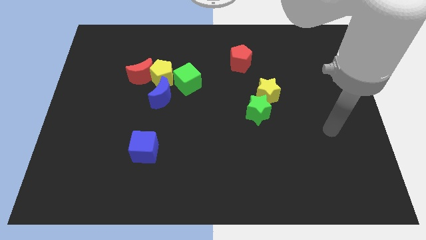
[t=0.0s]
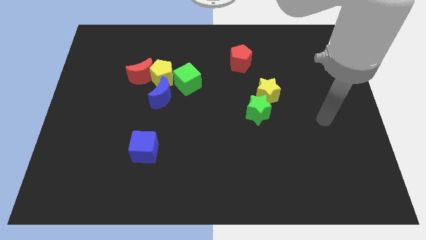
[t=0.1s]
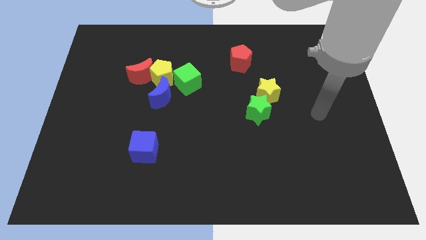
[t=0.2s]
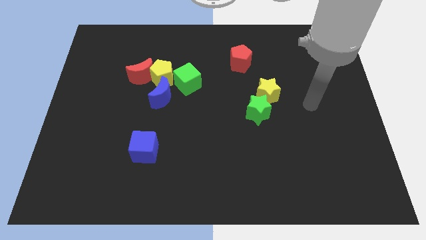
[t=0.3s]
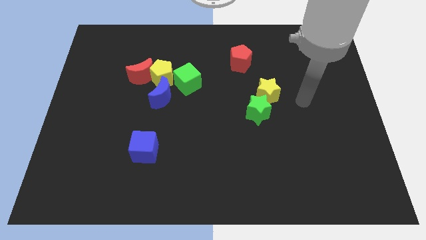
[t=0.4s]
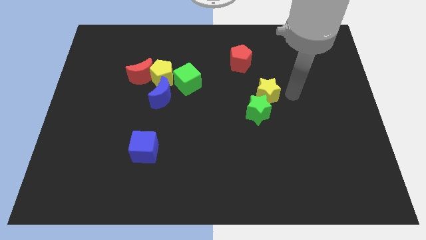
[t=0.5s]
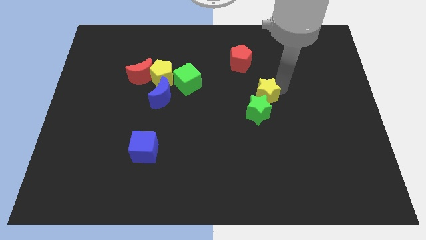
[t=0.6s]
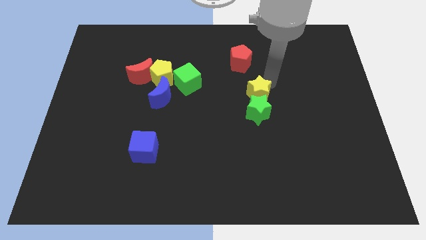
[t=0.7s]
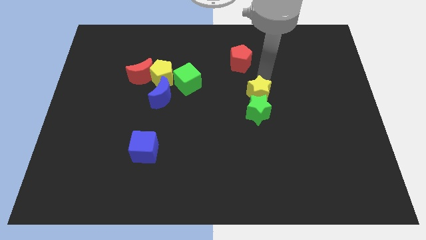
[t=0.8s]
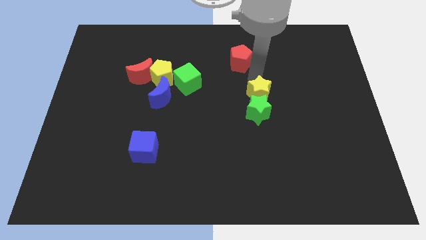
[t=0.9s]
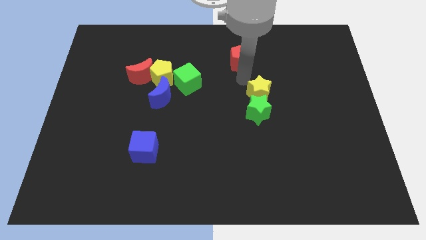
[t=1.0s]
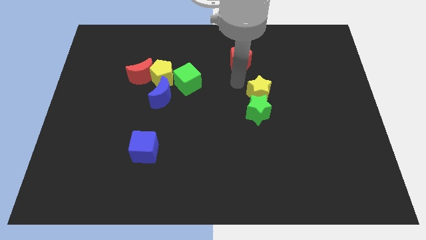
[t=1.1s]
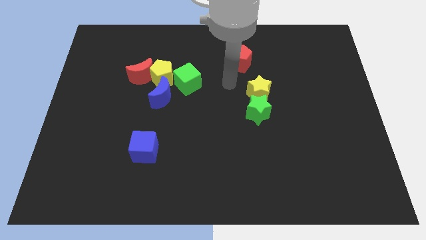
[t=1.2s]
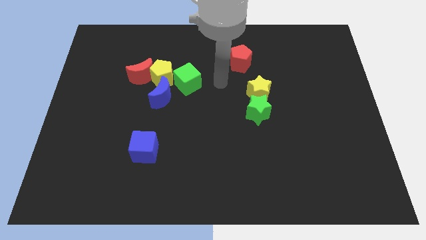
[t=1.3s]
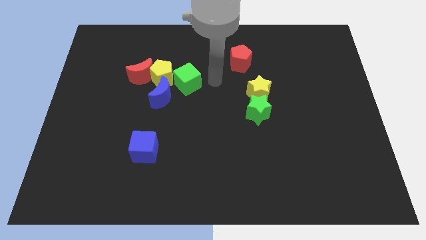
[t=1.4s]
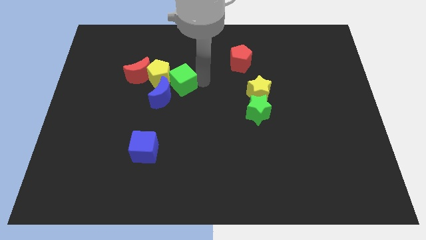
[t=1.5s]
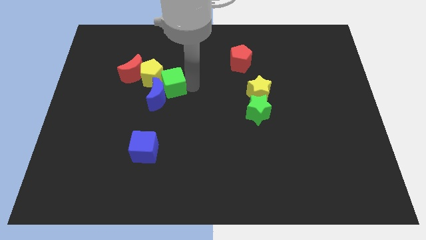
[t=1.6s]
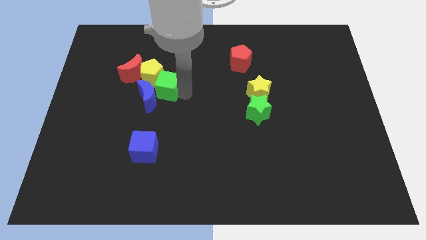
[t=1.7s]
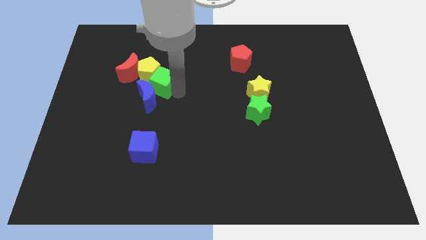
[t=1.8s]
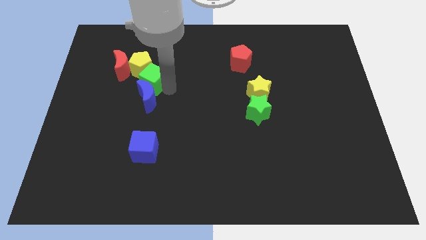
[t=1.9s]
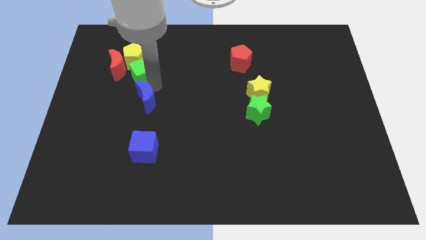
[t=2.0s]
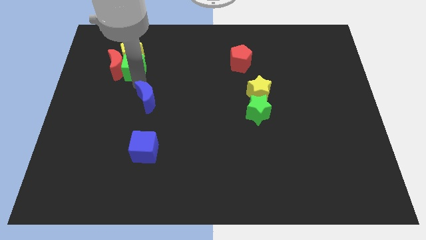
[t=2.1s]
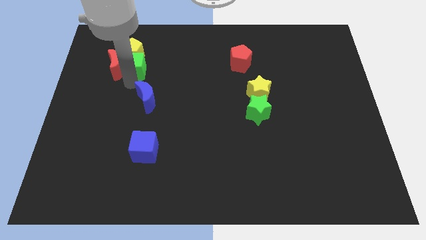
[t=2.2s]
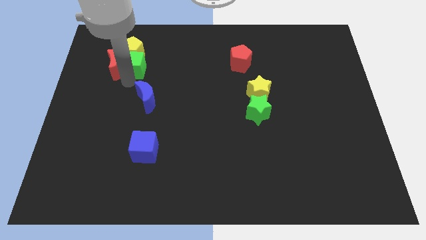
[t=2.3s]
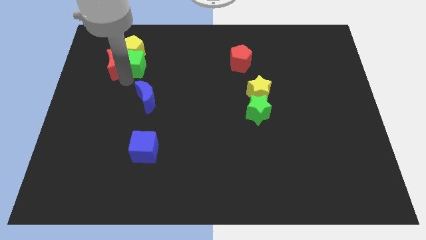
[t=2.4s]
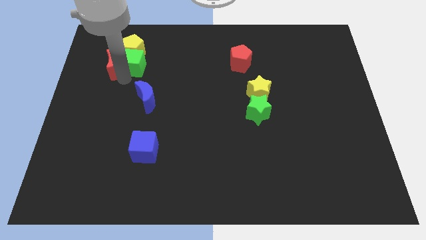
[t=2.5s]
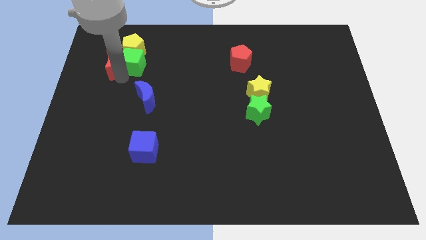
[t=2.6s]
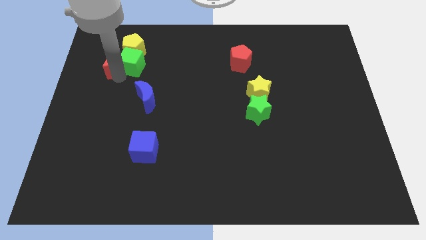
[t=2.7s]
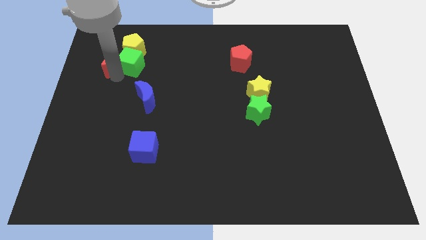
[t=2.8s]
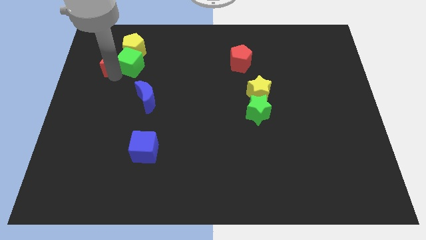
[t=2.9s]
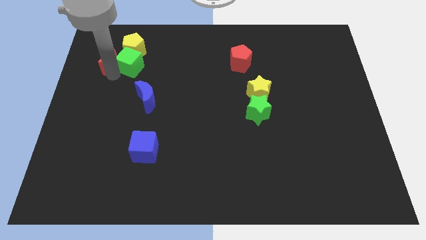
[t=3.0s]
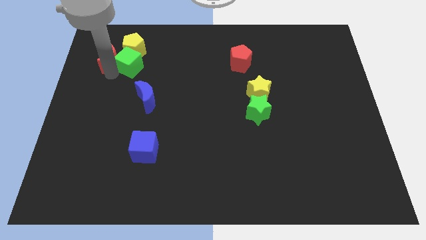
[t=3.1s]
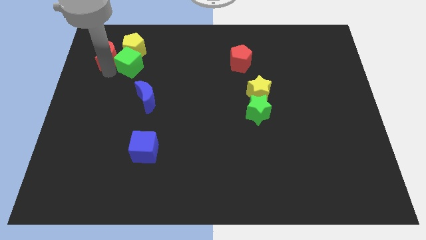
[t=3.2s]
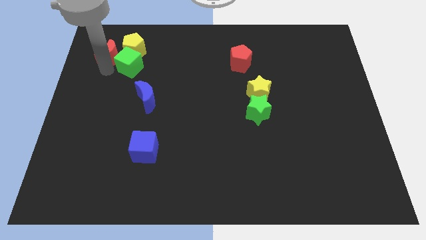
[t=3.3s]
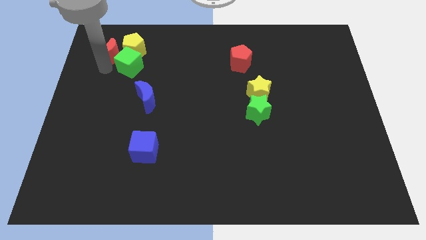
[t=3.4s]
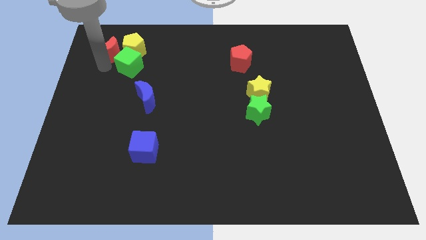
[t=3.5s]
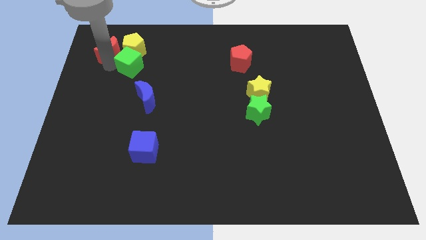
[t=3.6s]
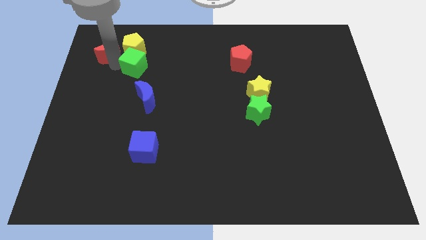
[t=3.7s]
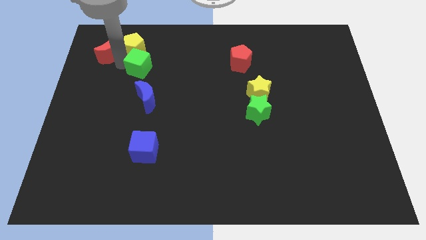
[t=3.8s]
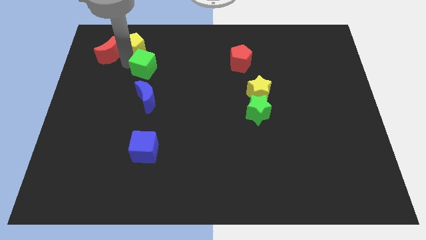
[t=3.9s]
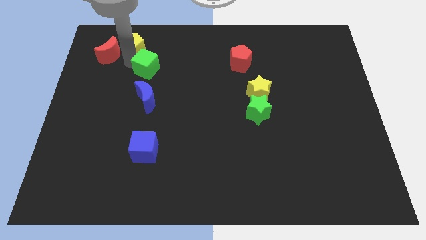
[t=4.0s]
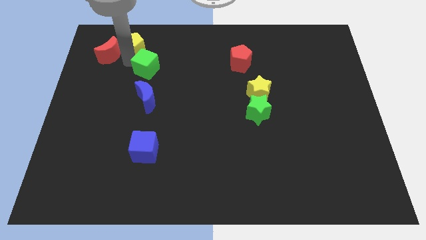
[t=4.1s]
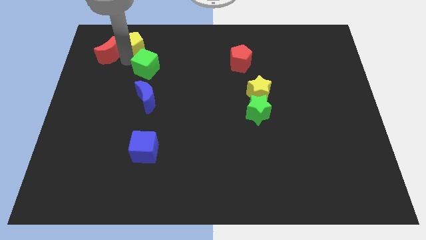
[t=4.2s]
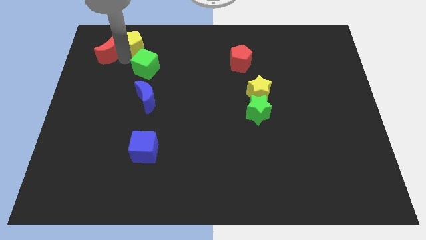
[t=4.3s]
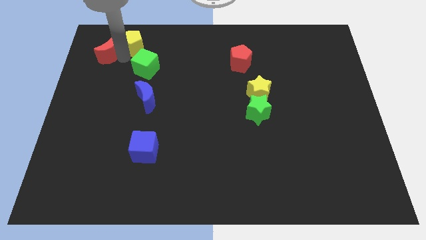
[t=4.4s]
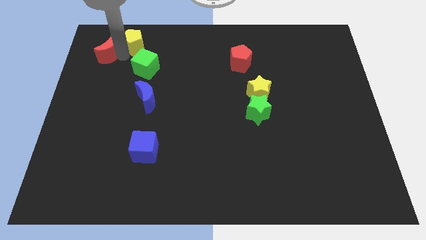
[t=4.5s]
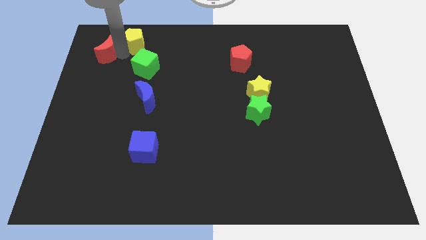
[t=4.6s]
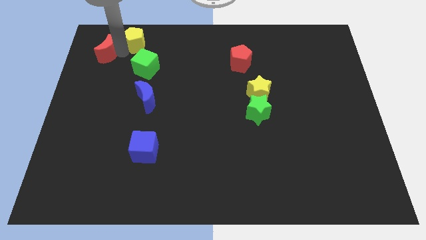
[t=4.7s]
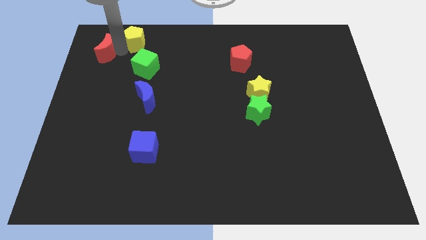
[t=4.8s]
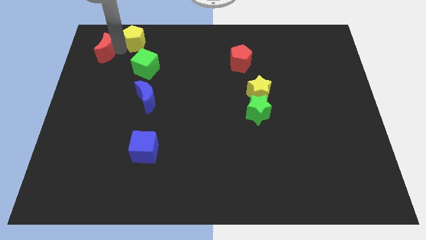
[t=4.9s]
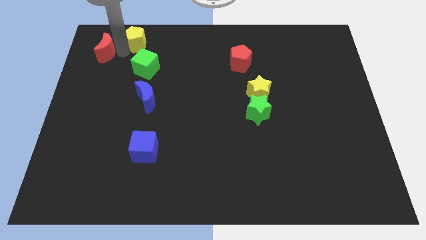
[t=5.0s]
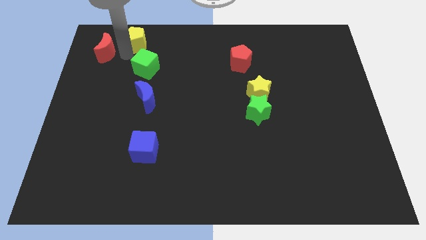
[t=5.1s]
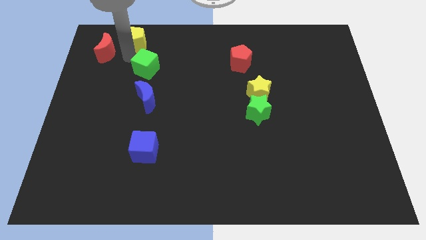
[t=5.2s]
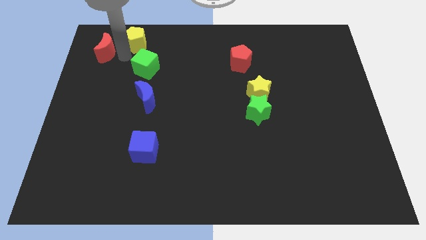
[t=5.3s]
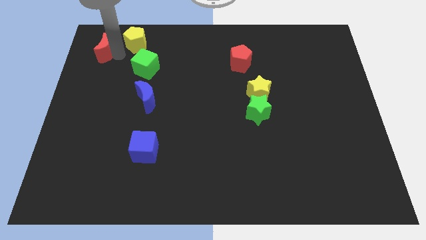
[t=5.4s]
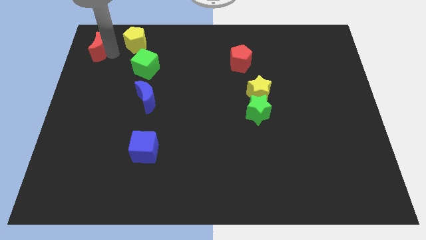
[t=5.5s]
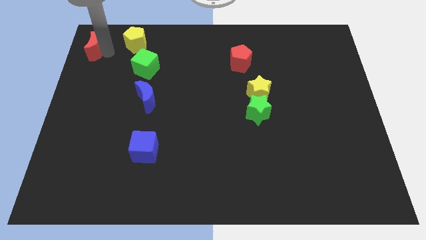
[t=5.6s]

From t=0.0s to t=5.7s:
move the red moon to the upper left corner

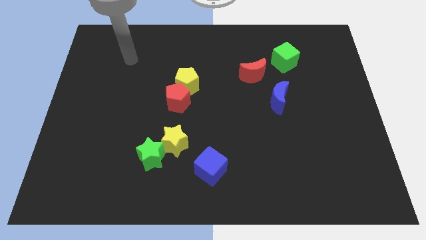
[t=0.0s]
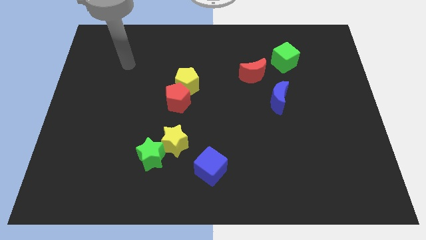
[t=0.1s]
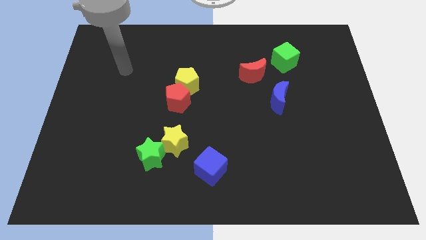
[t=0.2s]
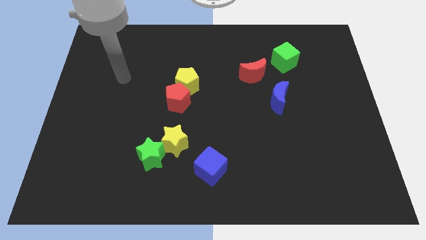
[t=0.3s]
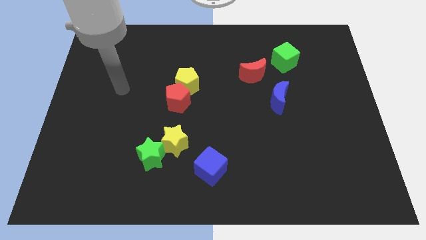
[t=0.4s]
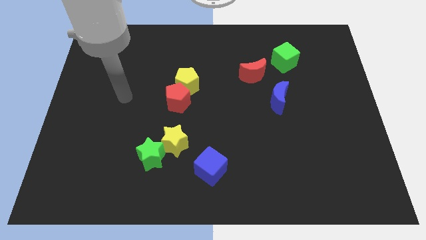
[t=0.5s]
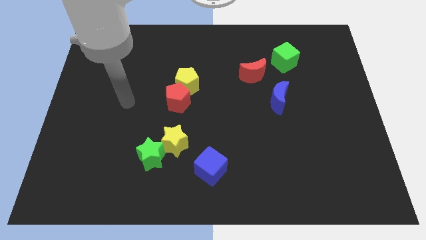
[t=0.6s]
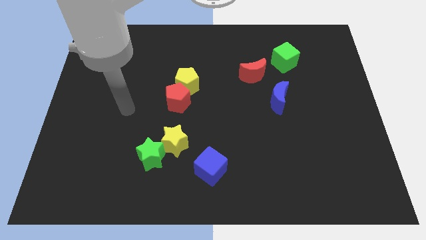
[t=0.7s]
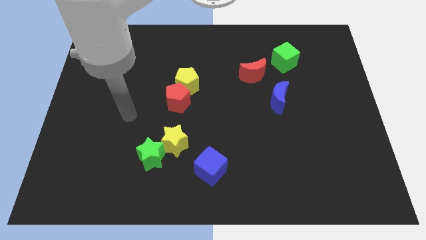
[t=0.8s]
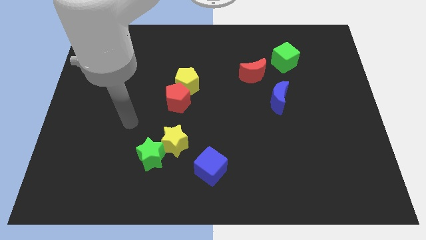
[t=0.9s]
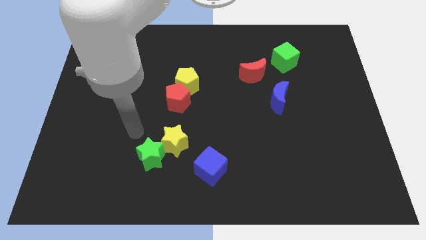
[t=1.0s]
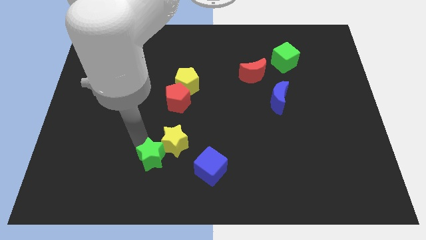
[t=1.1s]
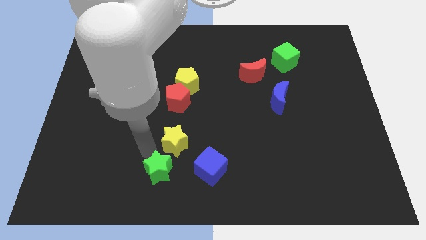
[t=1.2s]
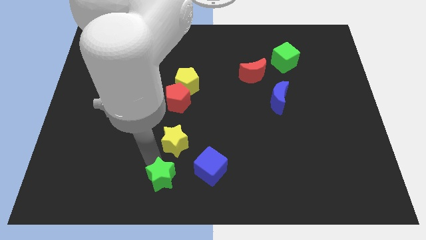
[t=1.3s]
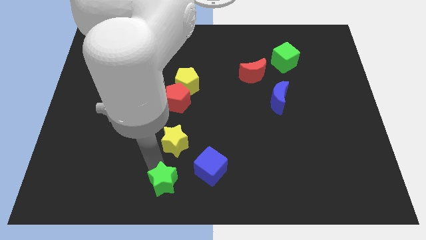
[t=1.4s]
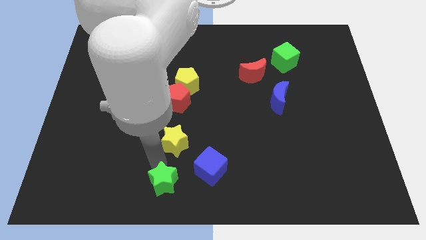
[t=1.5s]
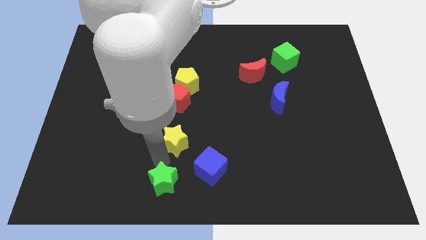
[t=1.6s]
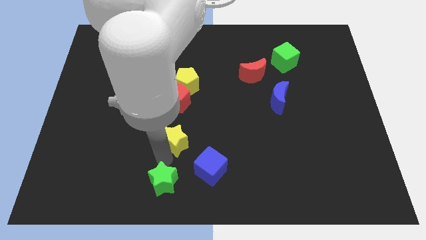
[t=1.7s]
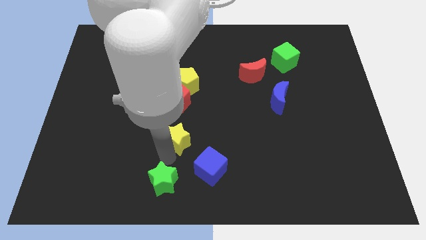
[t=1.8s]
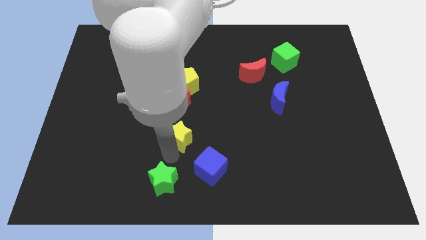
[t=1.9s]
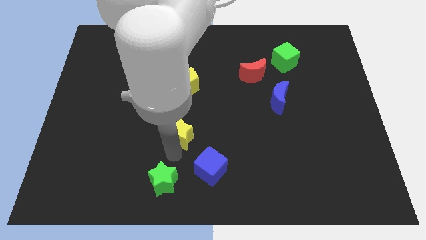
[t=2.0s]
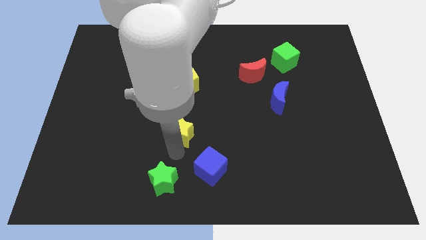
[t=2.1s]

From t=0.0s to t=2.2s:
move the yellow star to the middle of the board
